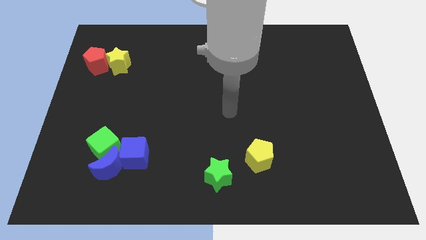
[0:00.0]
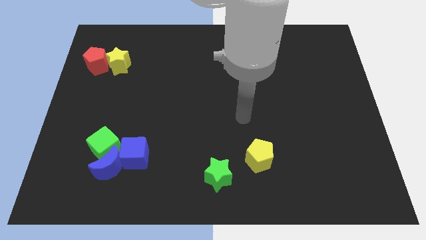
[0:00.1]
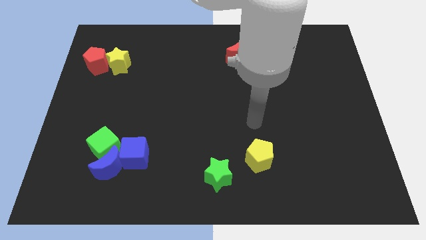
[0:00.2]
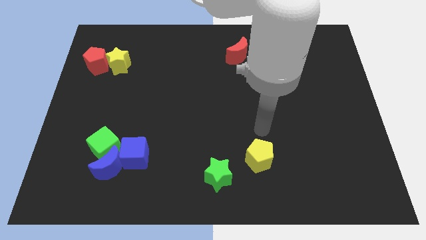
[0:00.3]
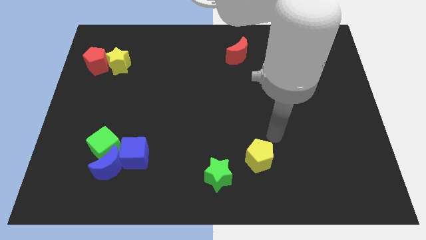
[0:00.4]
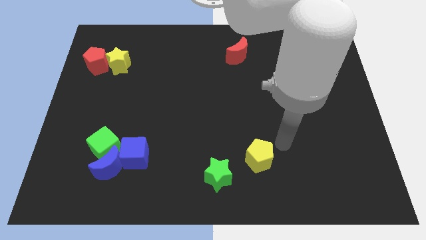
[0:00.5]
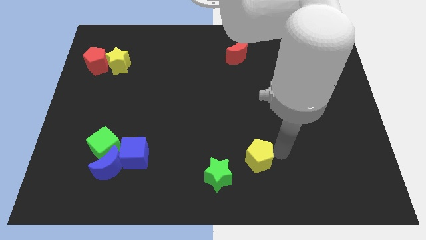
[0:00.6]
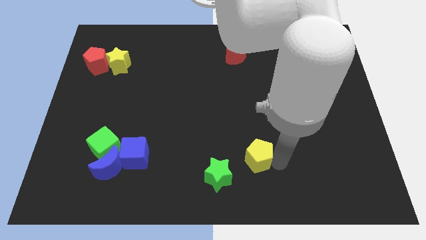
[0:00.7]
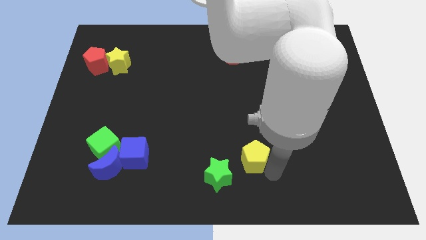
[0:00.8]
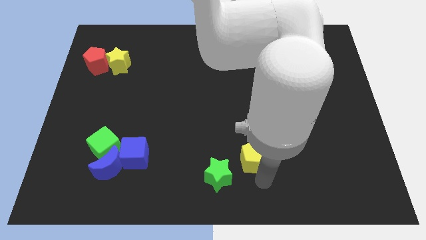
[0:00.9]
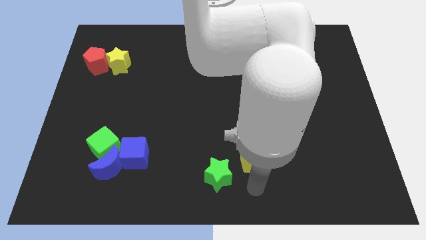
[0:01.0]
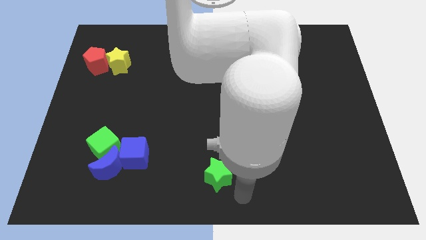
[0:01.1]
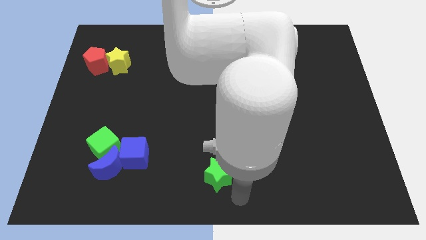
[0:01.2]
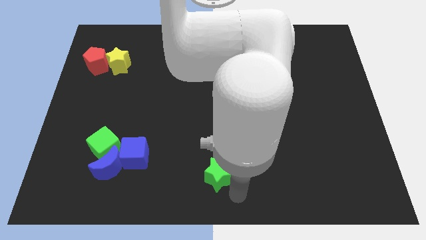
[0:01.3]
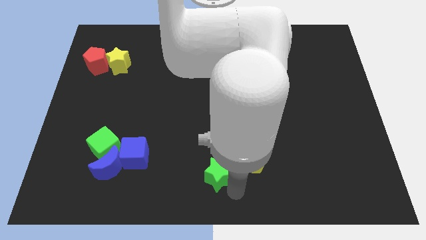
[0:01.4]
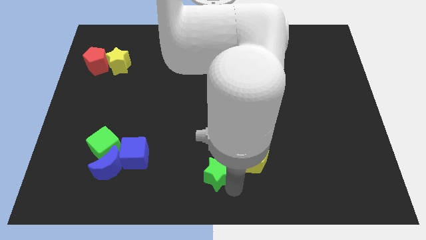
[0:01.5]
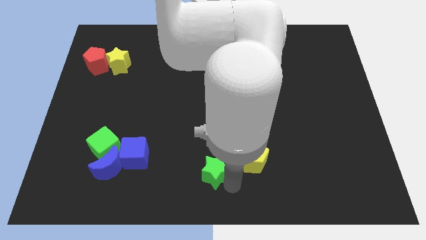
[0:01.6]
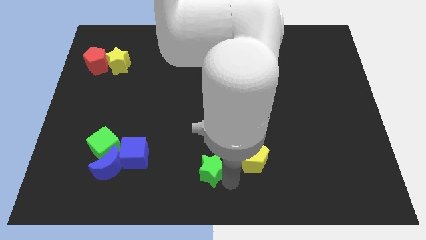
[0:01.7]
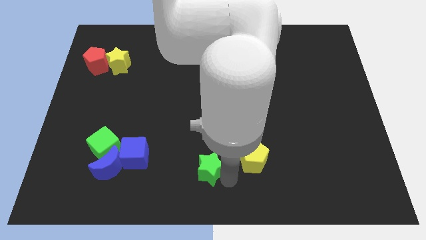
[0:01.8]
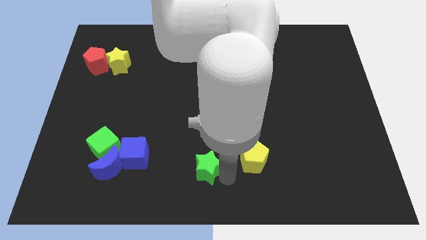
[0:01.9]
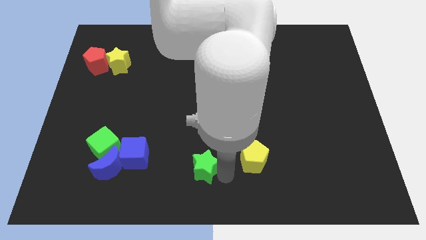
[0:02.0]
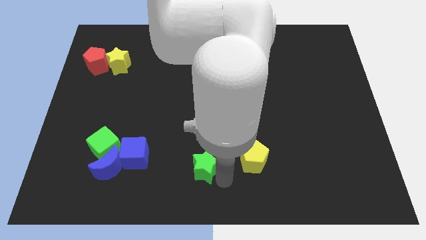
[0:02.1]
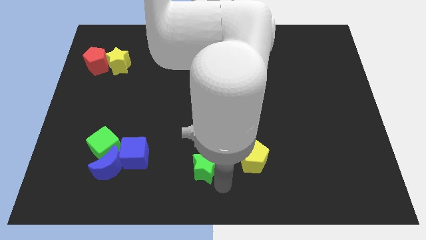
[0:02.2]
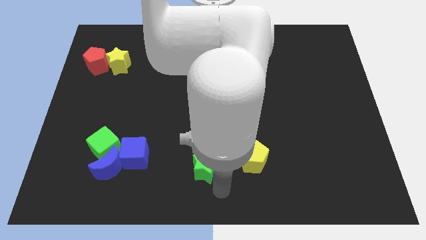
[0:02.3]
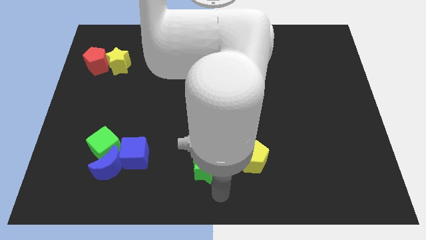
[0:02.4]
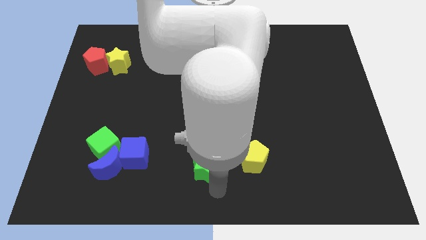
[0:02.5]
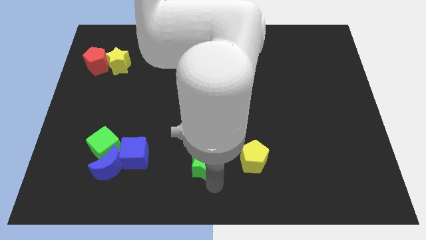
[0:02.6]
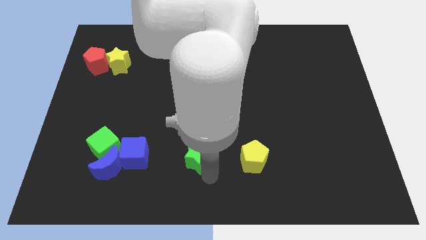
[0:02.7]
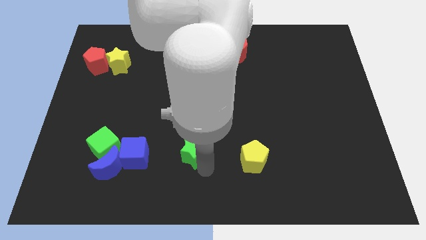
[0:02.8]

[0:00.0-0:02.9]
slide the green star somewhat upwards and to the left diagonally

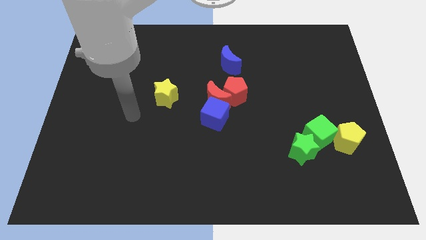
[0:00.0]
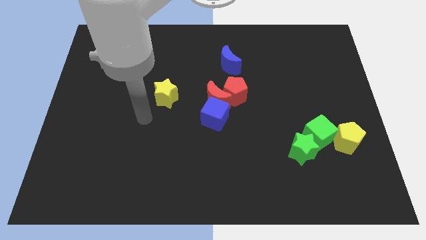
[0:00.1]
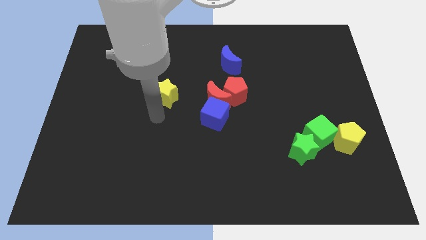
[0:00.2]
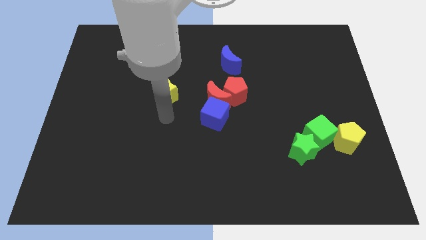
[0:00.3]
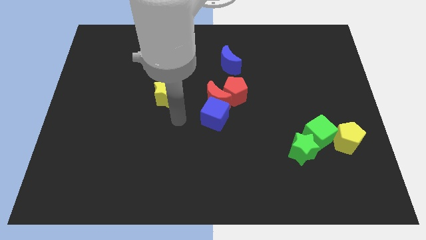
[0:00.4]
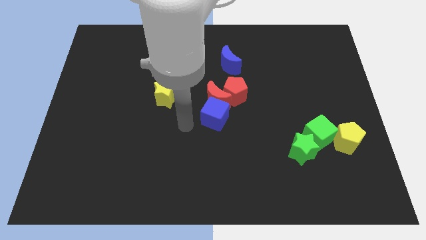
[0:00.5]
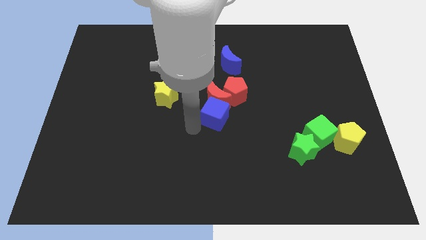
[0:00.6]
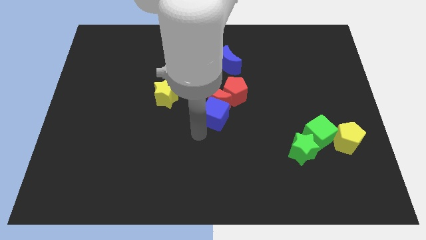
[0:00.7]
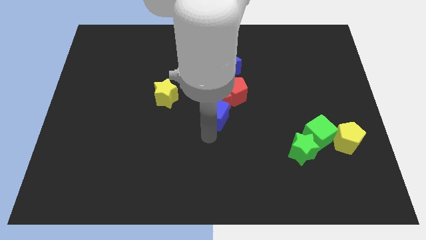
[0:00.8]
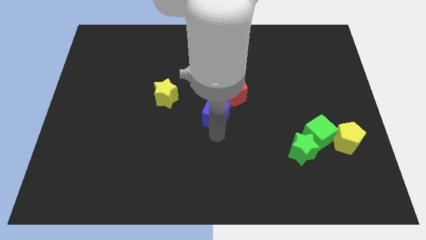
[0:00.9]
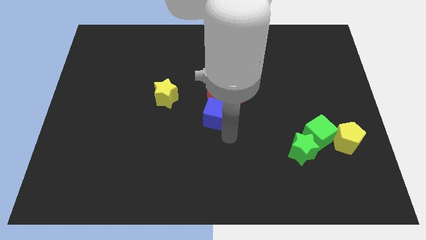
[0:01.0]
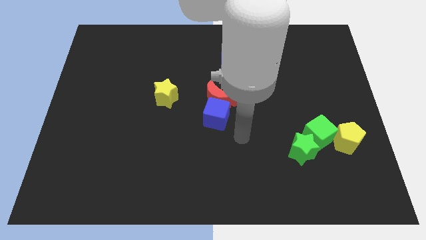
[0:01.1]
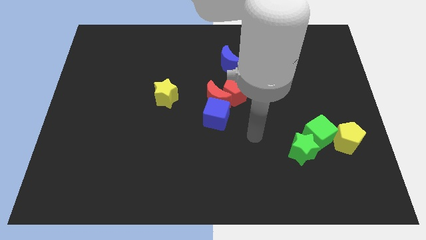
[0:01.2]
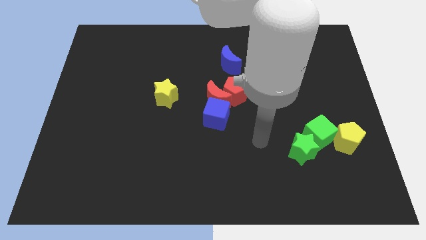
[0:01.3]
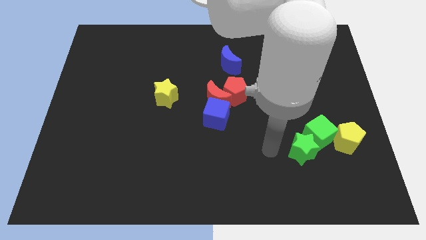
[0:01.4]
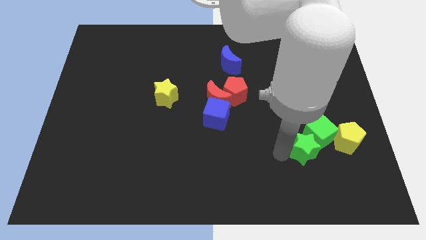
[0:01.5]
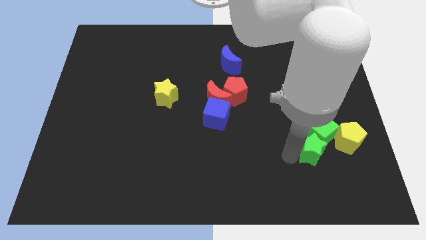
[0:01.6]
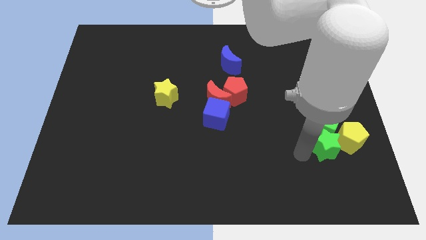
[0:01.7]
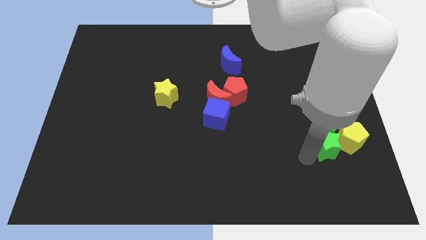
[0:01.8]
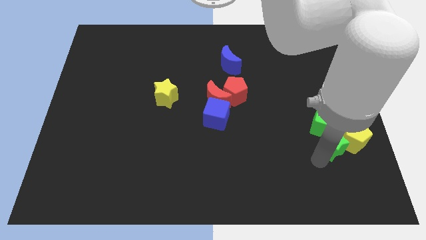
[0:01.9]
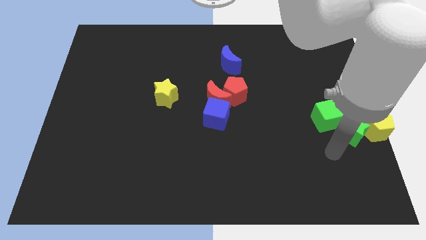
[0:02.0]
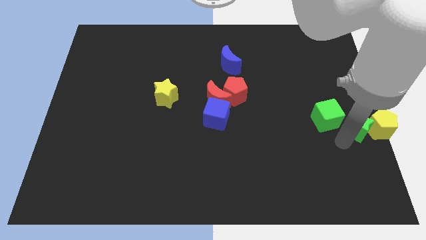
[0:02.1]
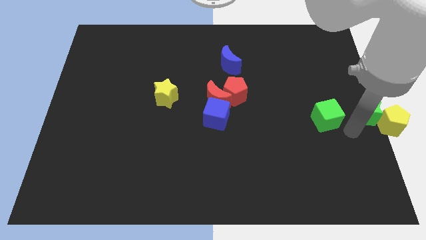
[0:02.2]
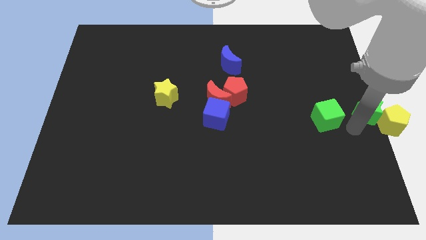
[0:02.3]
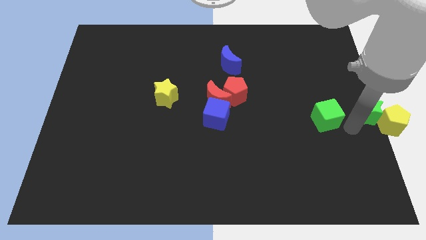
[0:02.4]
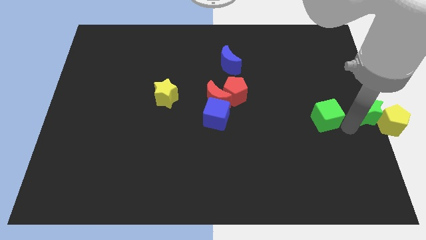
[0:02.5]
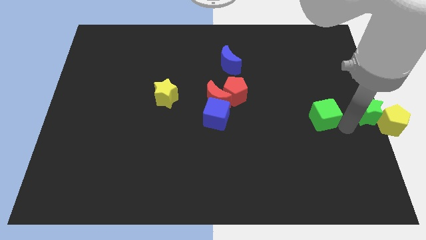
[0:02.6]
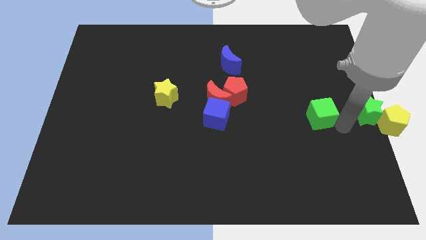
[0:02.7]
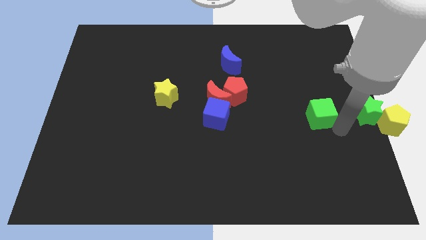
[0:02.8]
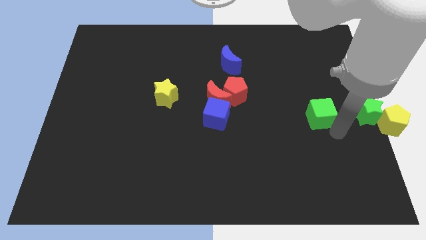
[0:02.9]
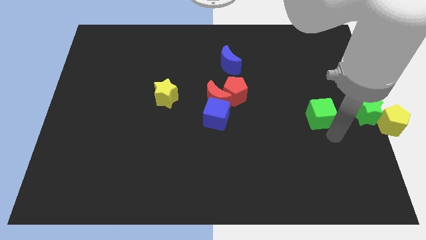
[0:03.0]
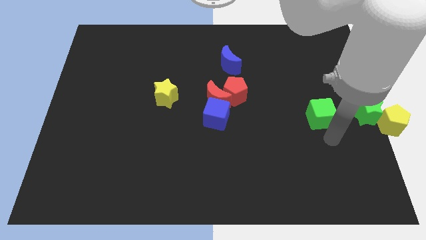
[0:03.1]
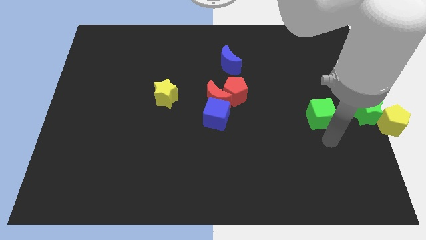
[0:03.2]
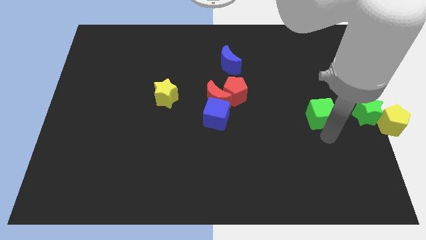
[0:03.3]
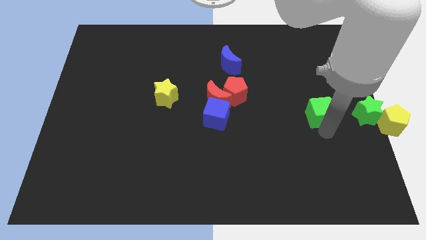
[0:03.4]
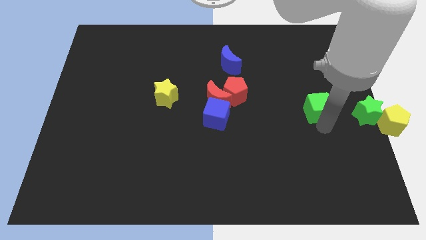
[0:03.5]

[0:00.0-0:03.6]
slightly push the green cube up

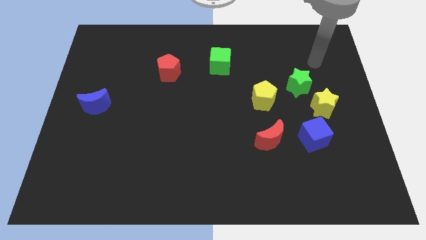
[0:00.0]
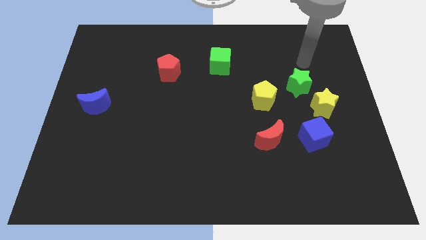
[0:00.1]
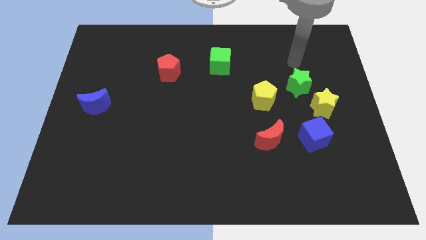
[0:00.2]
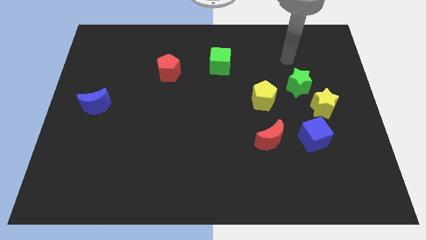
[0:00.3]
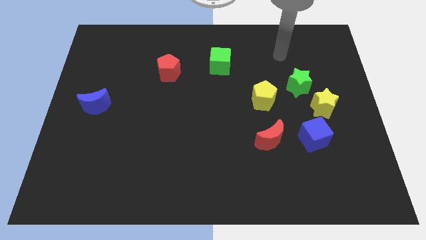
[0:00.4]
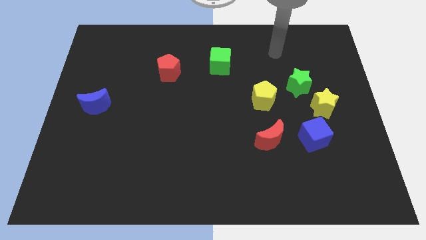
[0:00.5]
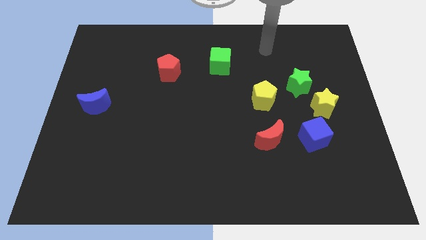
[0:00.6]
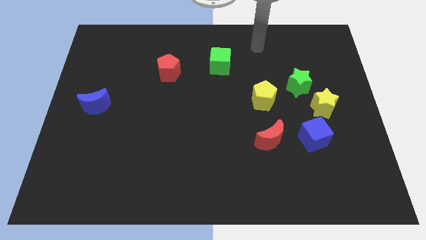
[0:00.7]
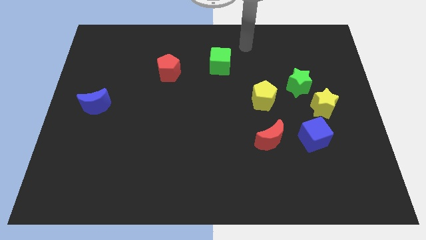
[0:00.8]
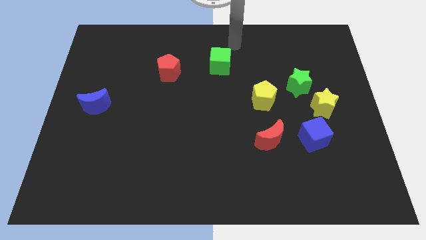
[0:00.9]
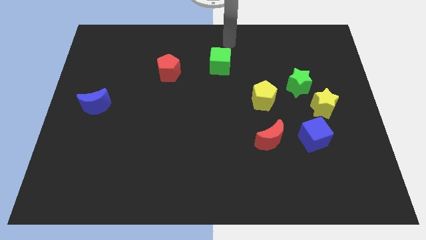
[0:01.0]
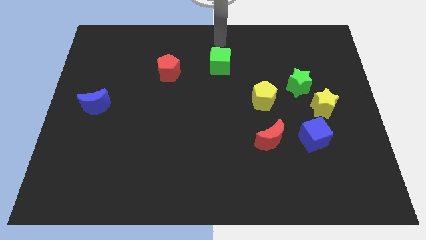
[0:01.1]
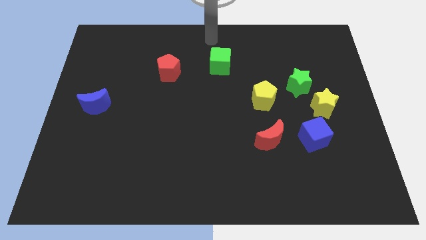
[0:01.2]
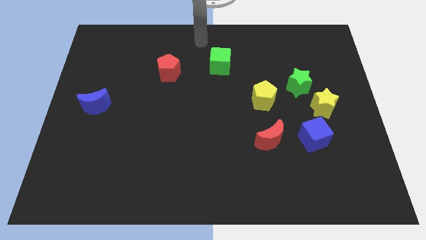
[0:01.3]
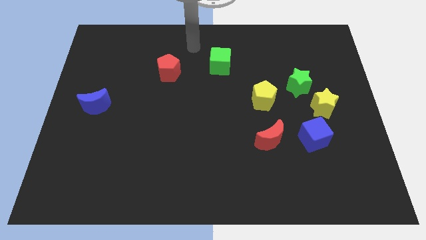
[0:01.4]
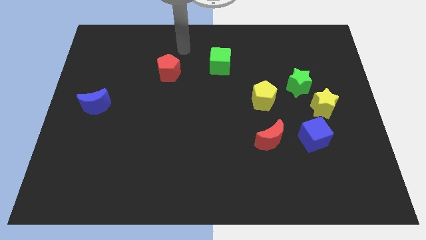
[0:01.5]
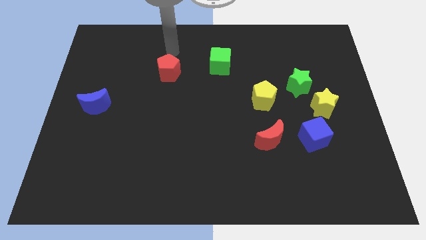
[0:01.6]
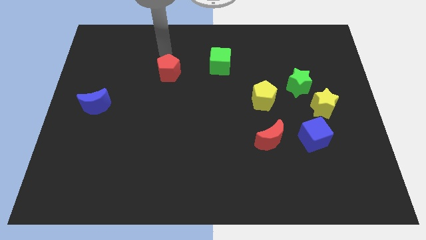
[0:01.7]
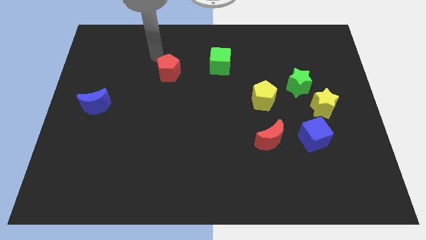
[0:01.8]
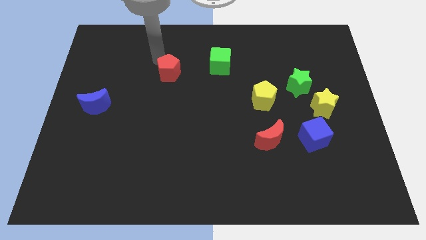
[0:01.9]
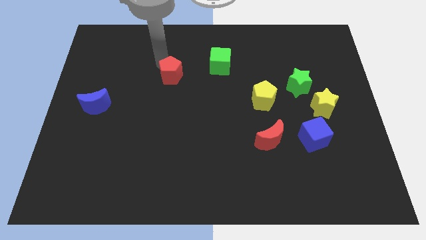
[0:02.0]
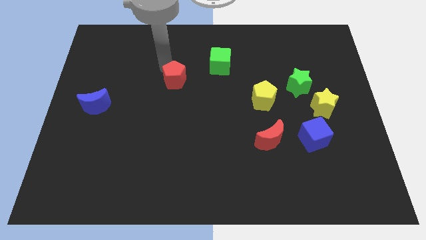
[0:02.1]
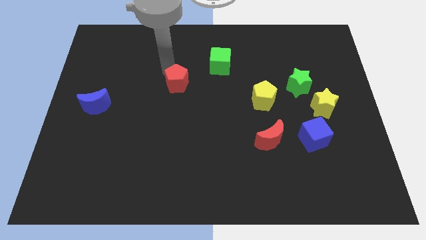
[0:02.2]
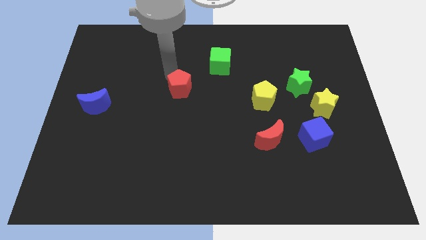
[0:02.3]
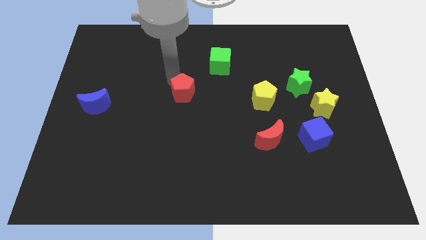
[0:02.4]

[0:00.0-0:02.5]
slightly push the red pentagon downwards and right diagonally
